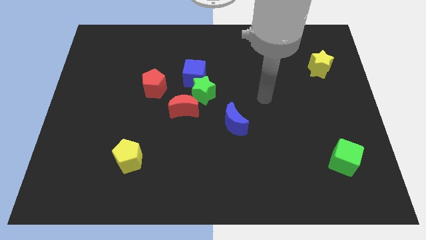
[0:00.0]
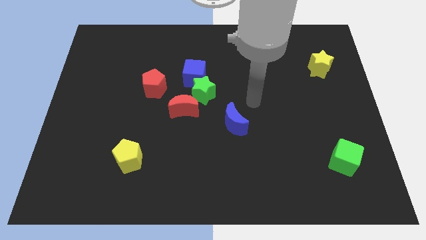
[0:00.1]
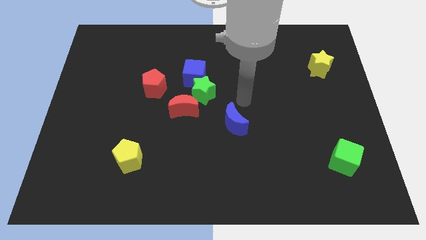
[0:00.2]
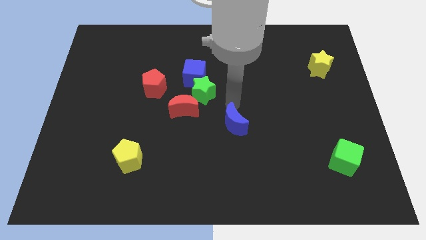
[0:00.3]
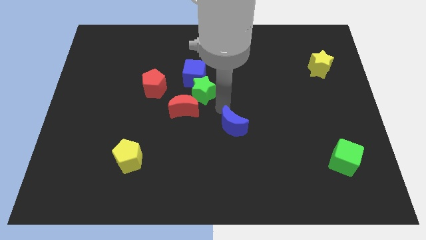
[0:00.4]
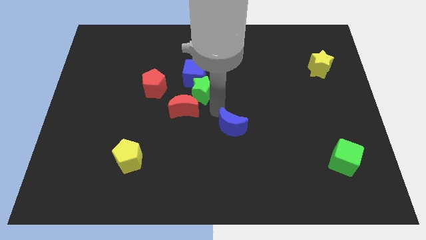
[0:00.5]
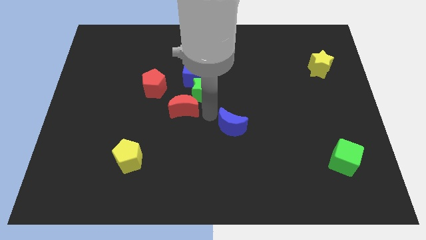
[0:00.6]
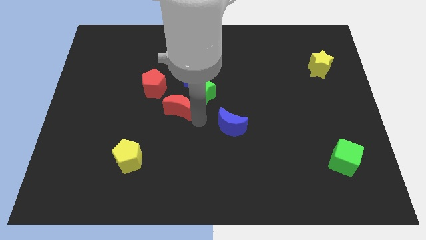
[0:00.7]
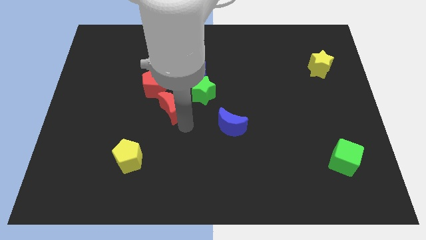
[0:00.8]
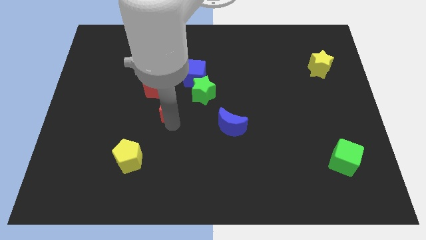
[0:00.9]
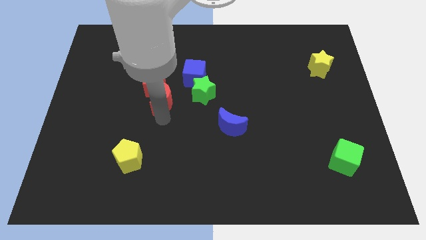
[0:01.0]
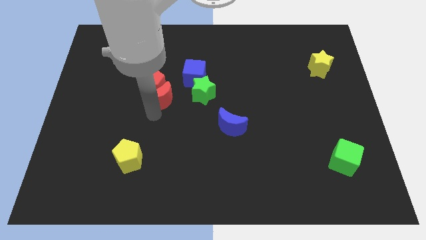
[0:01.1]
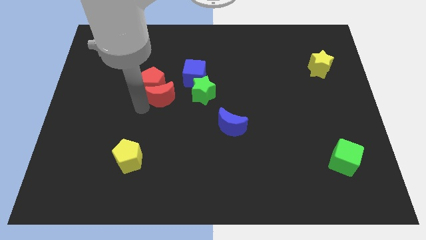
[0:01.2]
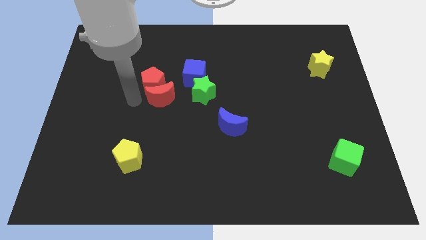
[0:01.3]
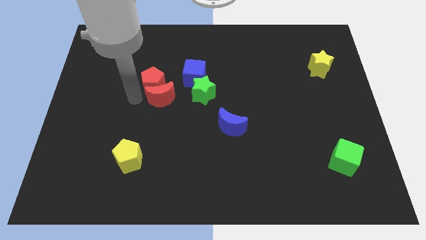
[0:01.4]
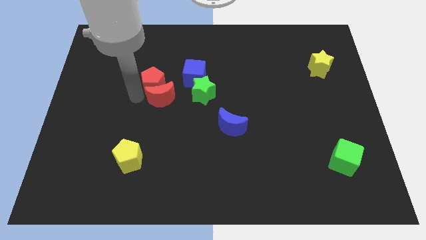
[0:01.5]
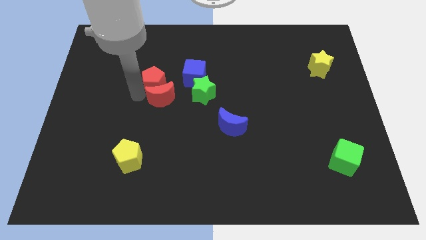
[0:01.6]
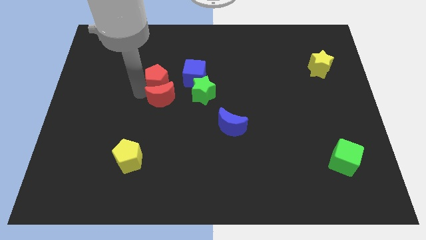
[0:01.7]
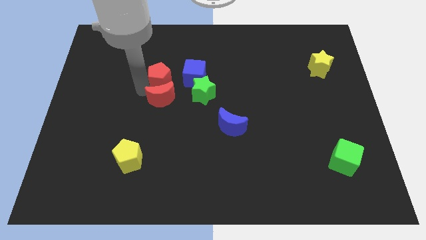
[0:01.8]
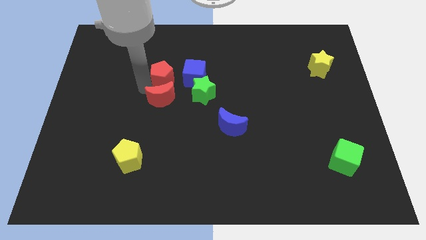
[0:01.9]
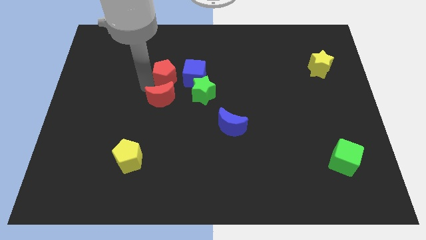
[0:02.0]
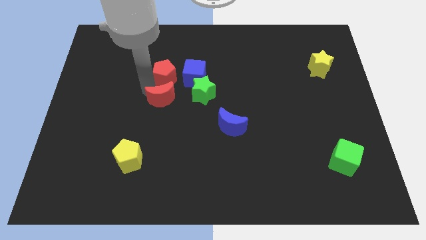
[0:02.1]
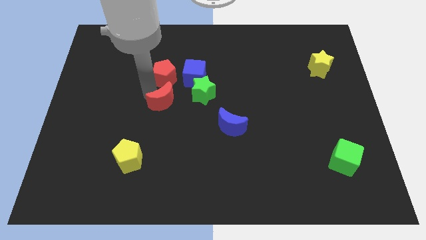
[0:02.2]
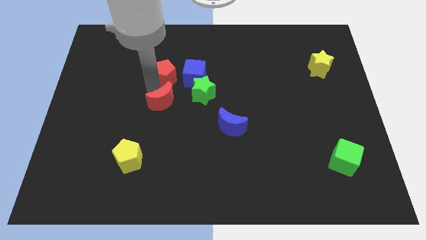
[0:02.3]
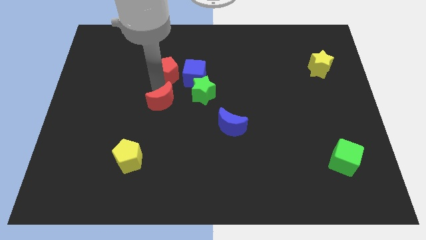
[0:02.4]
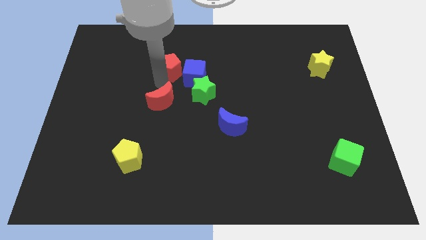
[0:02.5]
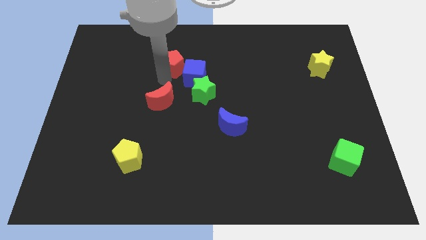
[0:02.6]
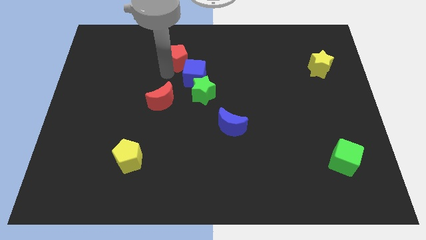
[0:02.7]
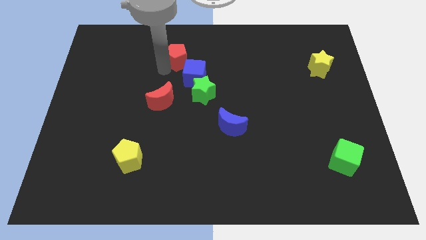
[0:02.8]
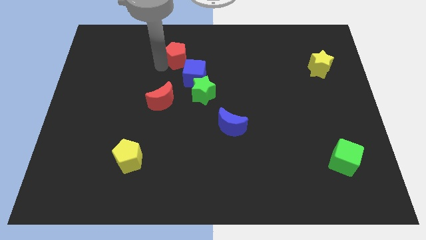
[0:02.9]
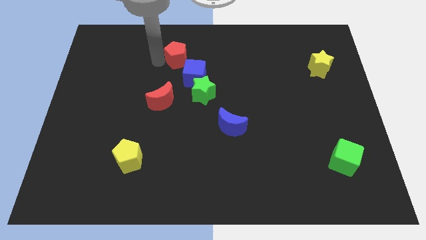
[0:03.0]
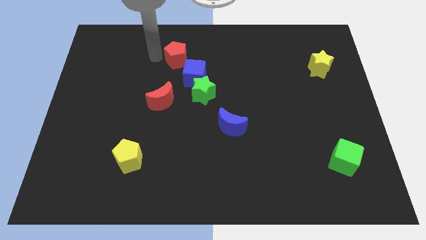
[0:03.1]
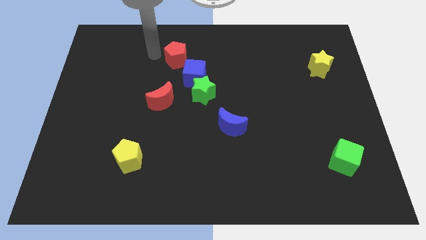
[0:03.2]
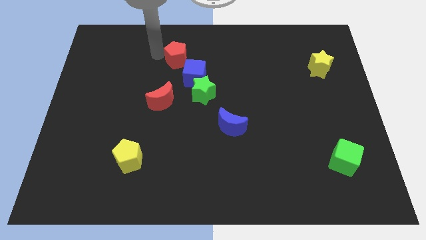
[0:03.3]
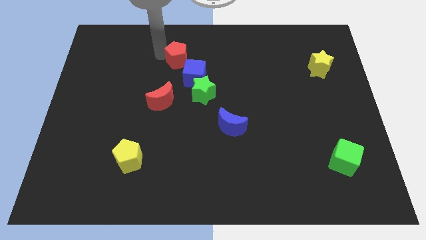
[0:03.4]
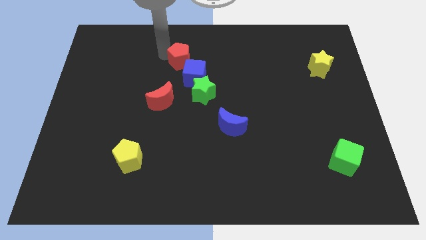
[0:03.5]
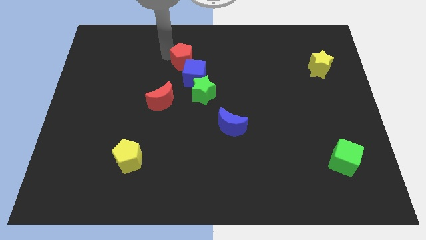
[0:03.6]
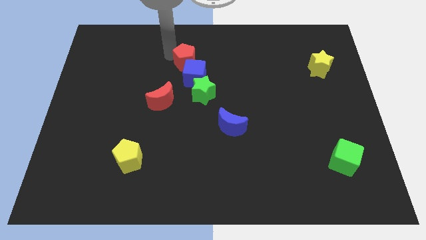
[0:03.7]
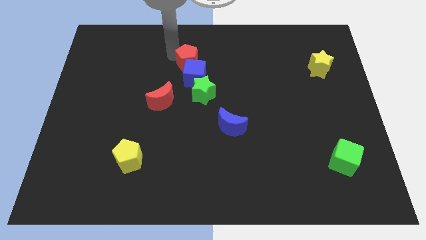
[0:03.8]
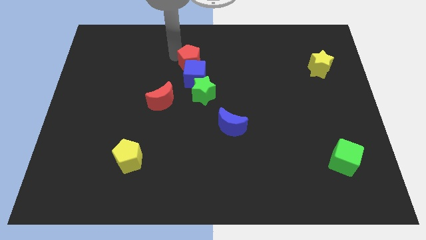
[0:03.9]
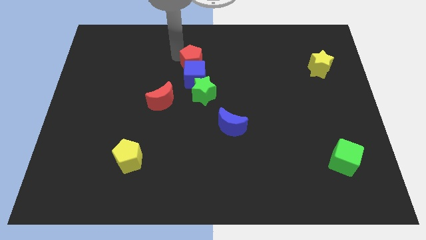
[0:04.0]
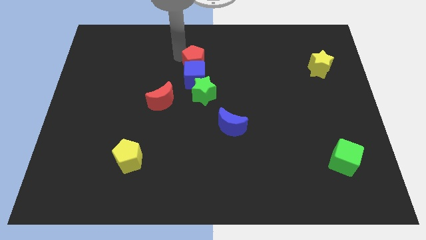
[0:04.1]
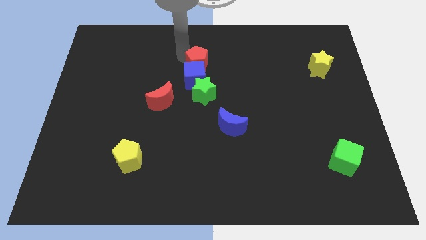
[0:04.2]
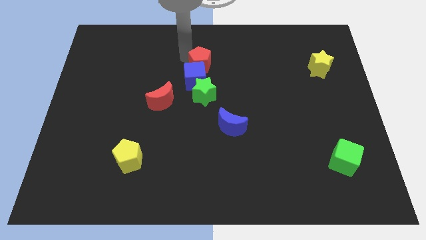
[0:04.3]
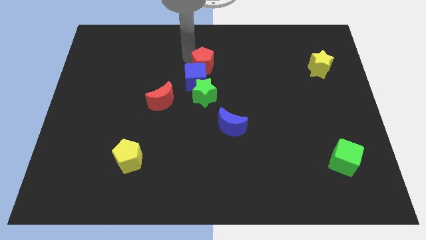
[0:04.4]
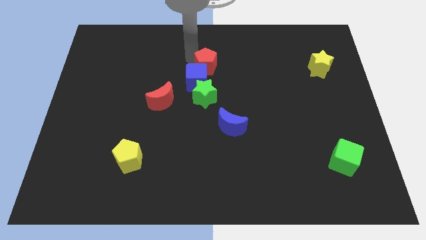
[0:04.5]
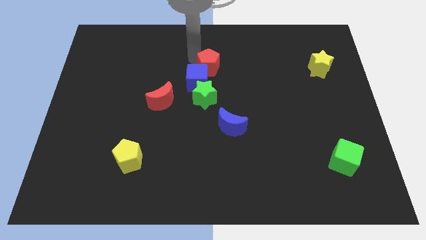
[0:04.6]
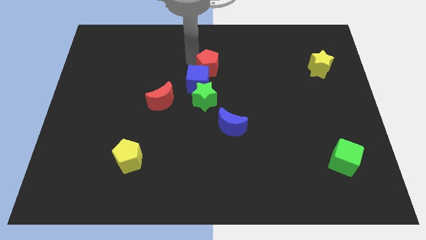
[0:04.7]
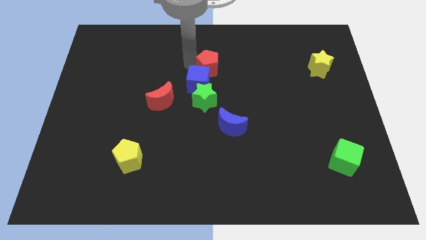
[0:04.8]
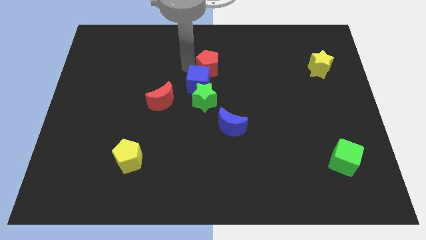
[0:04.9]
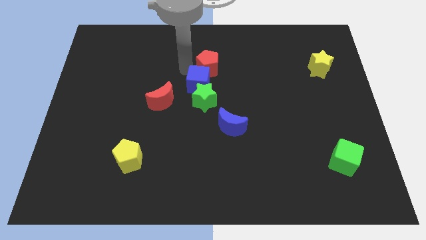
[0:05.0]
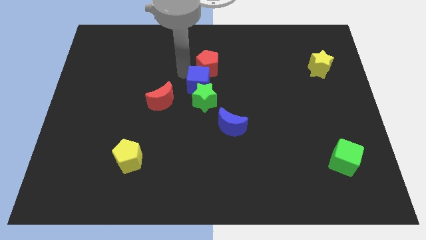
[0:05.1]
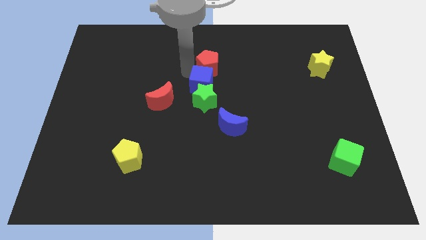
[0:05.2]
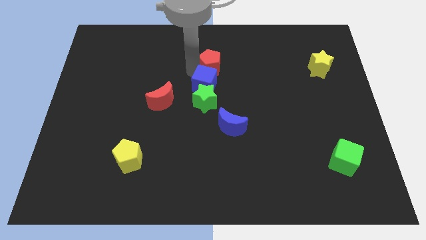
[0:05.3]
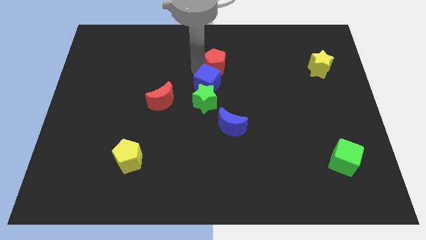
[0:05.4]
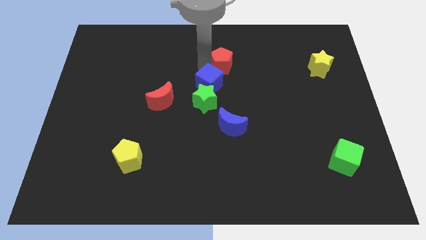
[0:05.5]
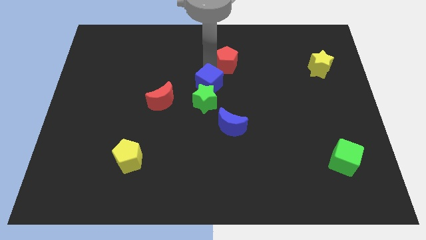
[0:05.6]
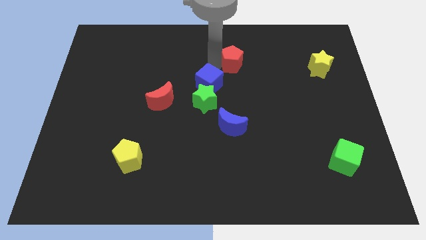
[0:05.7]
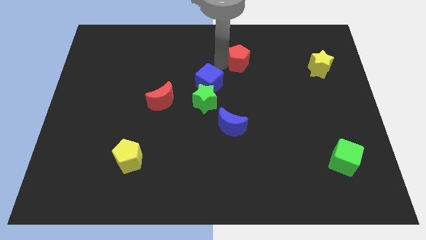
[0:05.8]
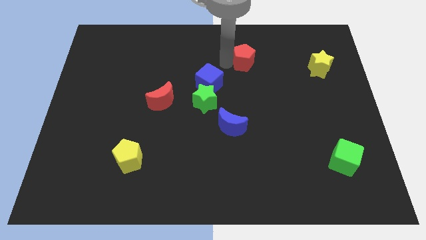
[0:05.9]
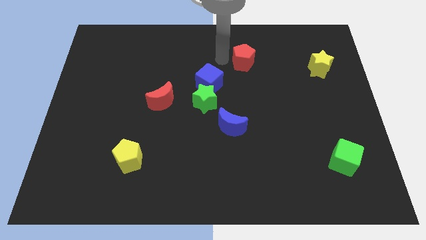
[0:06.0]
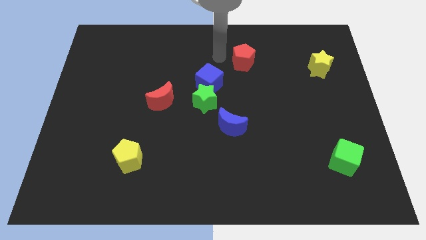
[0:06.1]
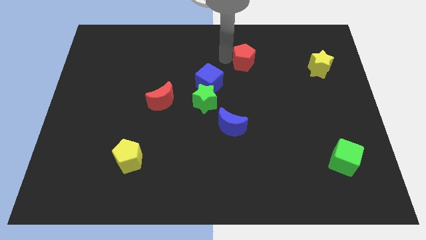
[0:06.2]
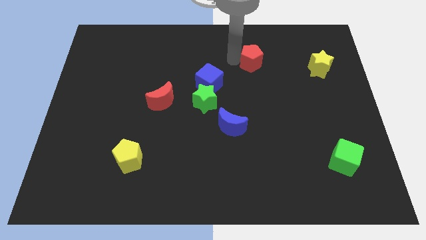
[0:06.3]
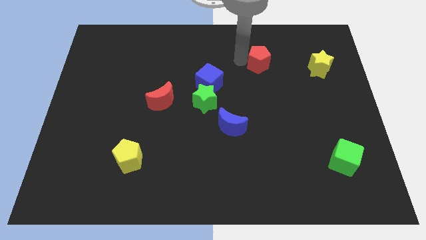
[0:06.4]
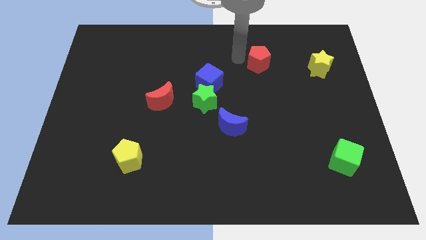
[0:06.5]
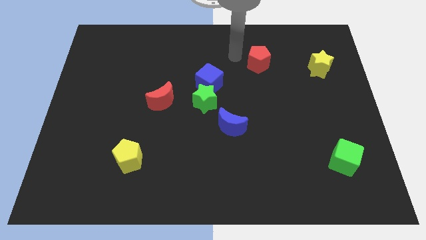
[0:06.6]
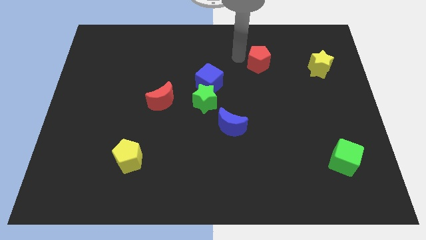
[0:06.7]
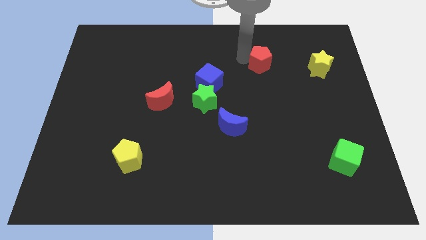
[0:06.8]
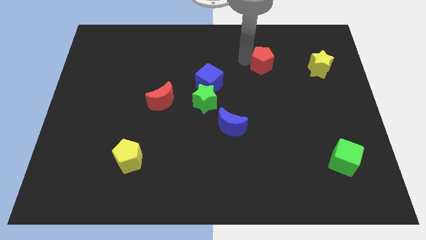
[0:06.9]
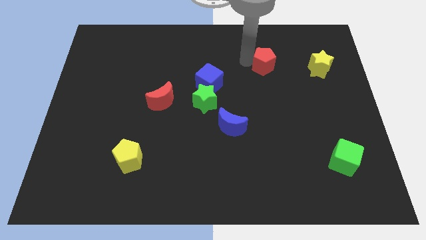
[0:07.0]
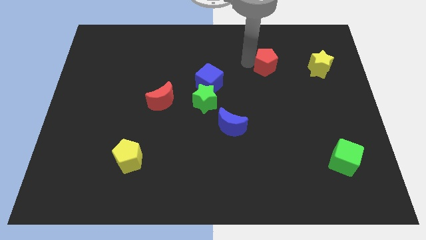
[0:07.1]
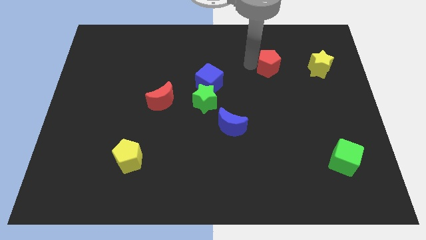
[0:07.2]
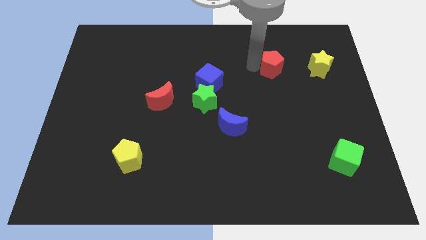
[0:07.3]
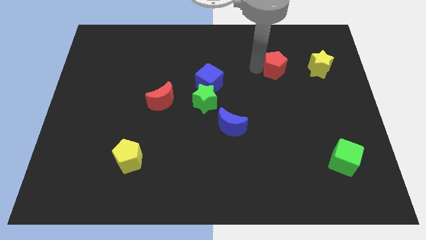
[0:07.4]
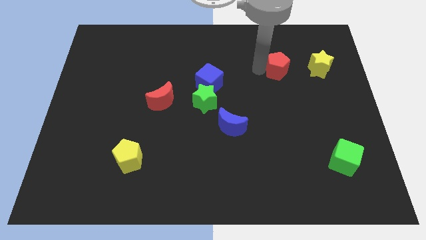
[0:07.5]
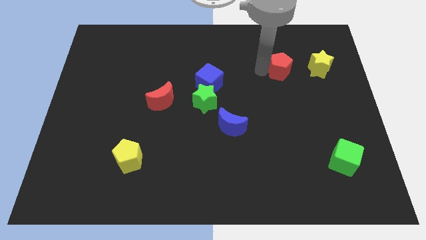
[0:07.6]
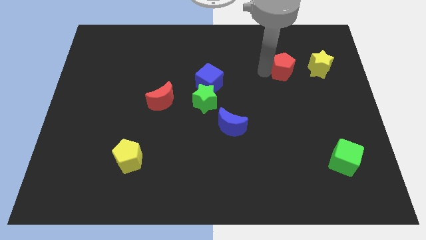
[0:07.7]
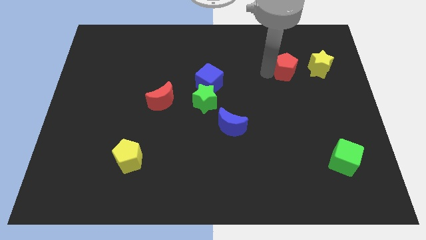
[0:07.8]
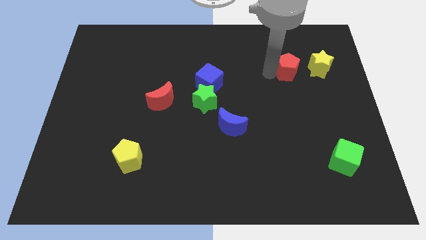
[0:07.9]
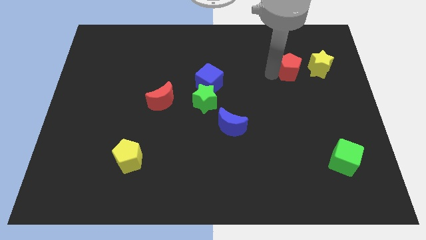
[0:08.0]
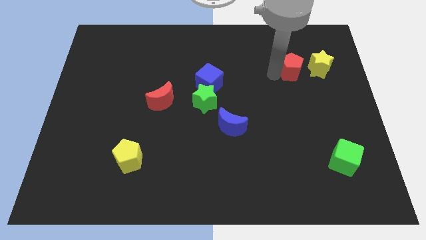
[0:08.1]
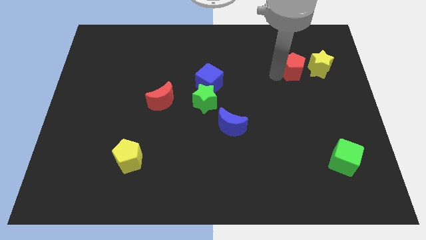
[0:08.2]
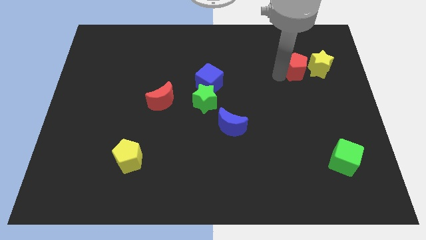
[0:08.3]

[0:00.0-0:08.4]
push the red pentagon close to the yellow star
